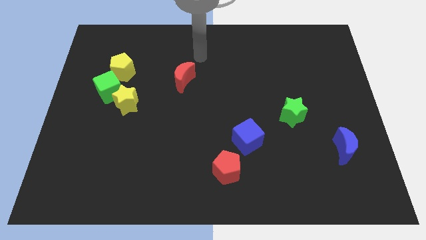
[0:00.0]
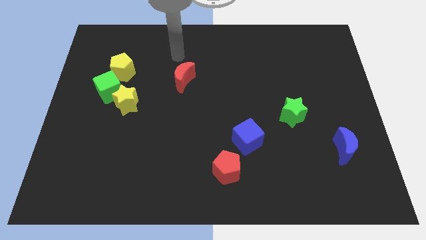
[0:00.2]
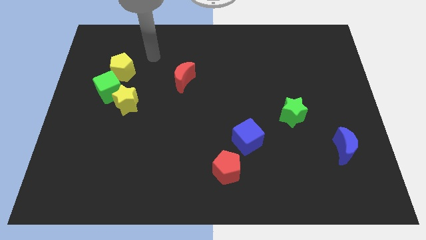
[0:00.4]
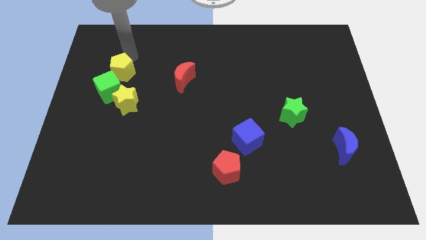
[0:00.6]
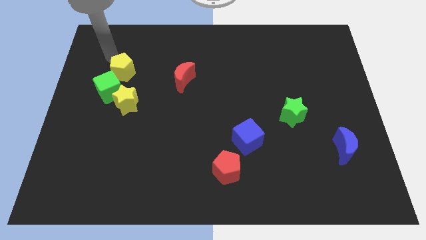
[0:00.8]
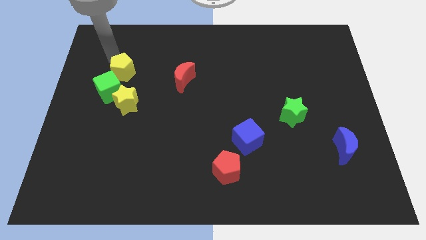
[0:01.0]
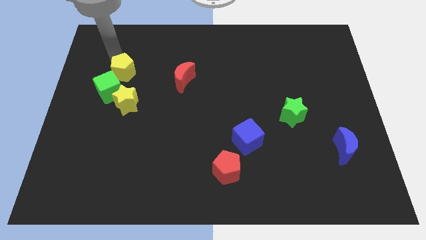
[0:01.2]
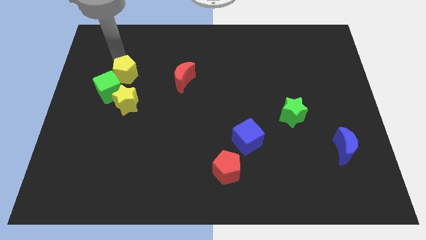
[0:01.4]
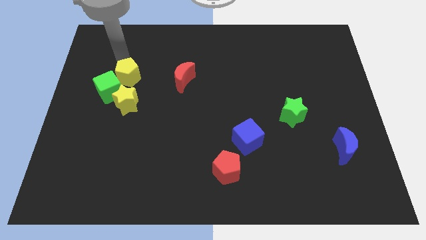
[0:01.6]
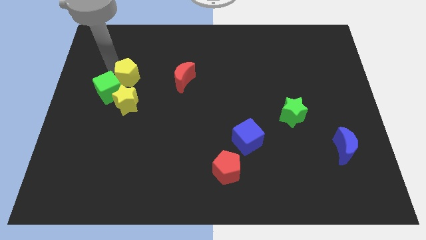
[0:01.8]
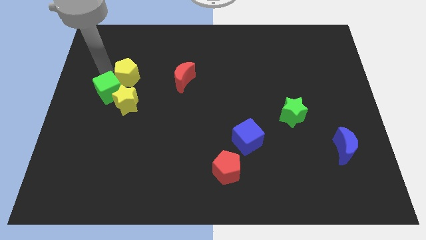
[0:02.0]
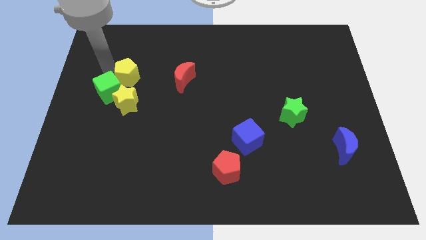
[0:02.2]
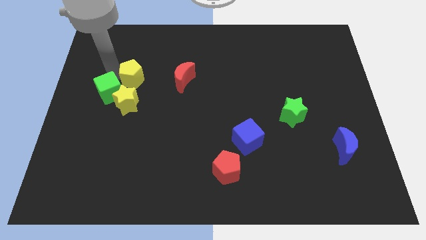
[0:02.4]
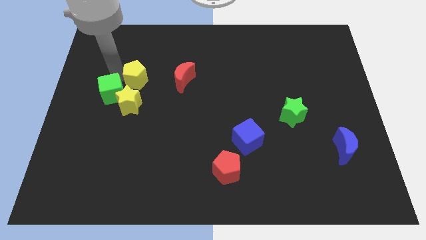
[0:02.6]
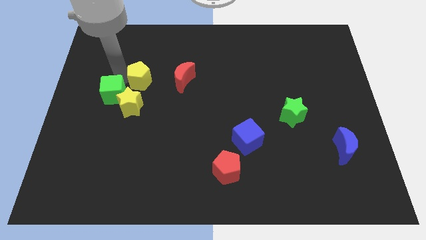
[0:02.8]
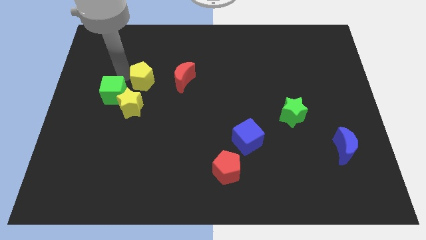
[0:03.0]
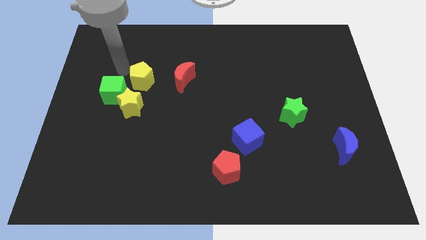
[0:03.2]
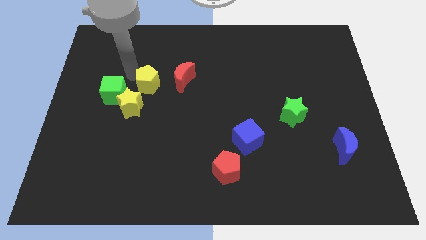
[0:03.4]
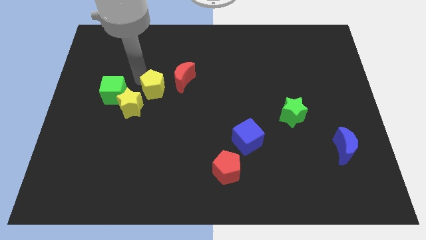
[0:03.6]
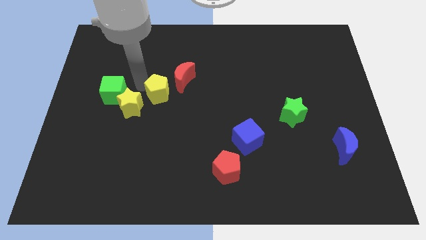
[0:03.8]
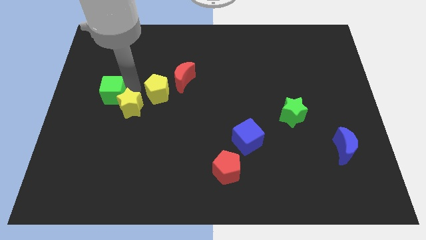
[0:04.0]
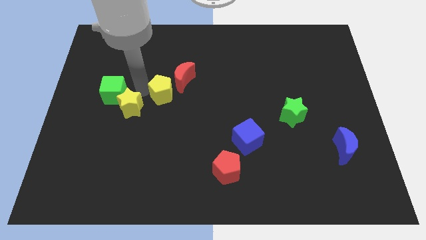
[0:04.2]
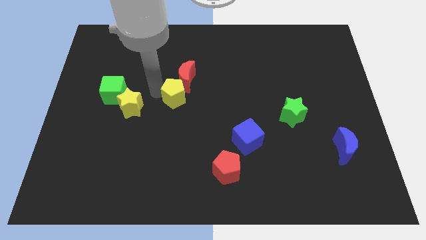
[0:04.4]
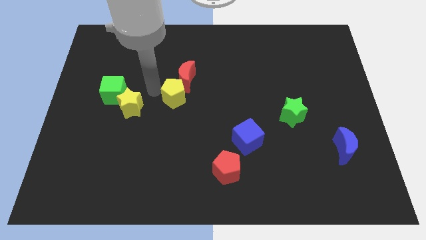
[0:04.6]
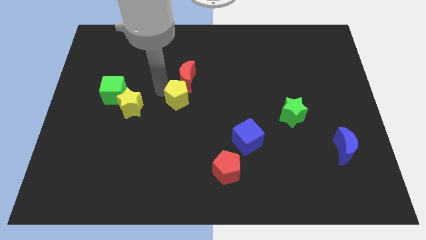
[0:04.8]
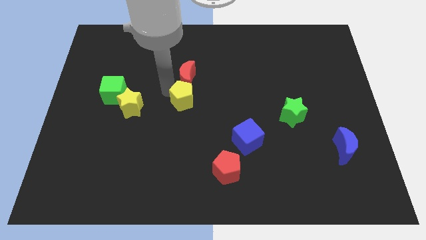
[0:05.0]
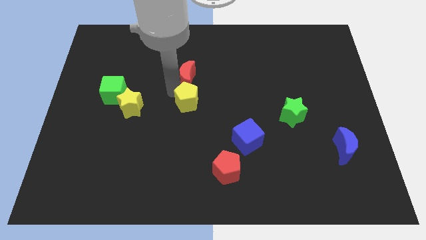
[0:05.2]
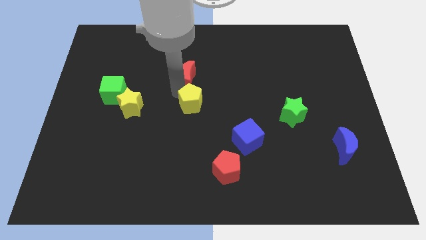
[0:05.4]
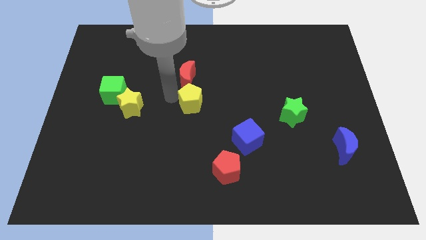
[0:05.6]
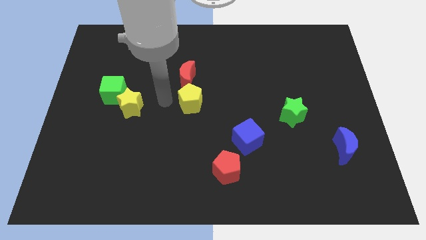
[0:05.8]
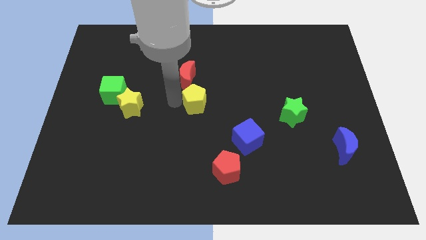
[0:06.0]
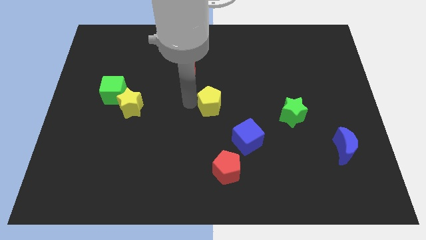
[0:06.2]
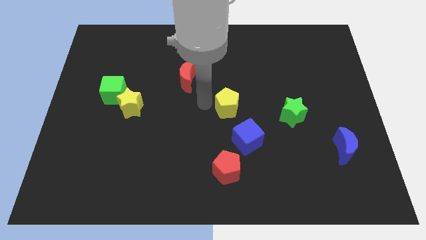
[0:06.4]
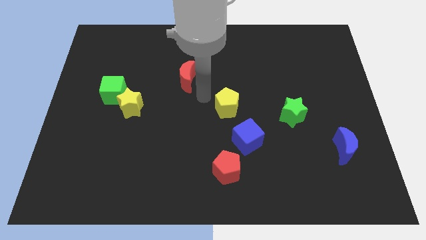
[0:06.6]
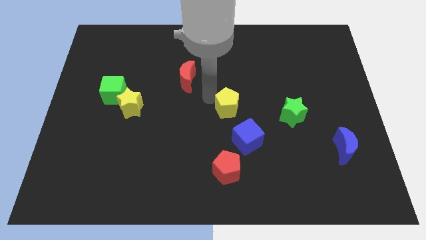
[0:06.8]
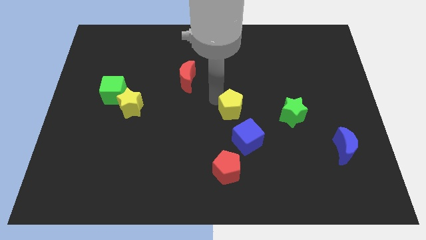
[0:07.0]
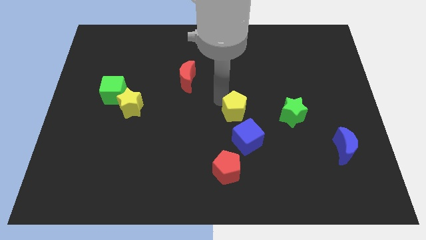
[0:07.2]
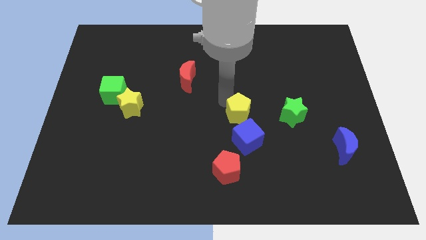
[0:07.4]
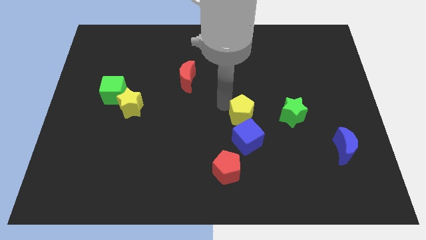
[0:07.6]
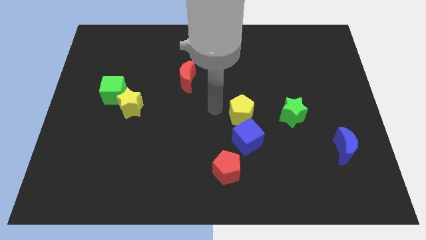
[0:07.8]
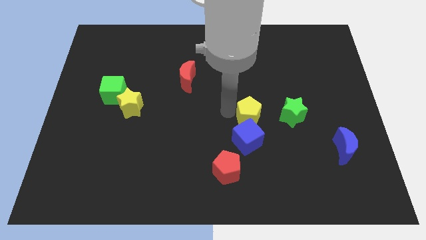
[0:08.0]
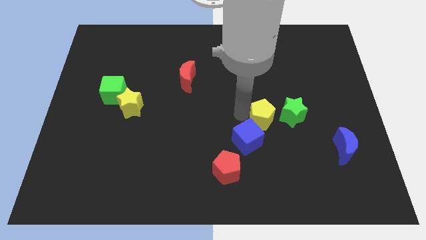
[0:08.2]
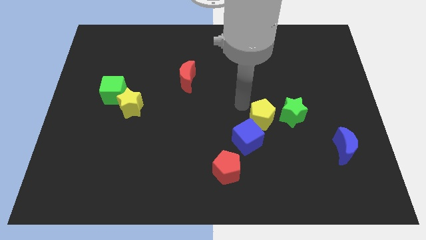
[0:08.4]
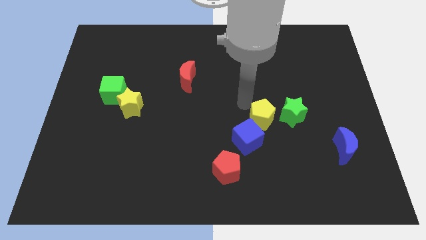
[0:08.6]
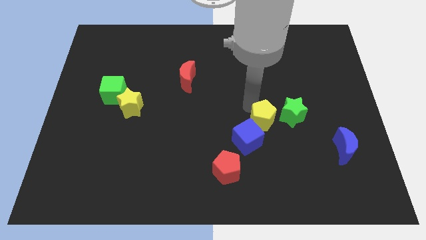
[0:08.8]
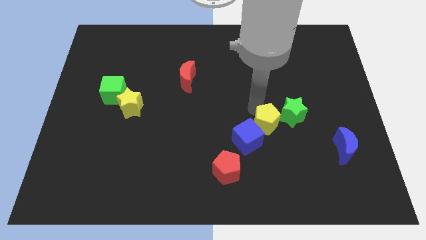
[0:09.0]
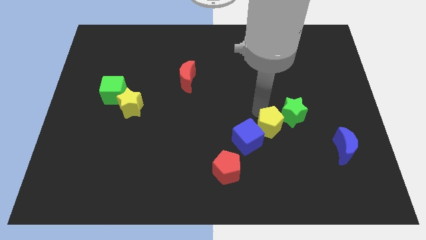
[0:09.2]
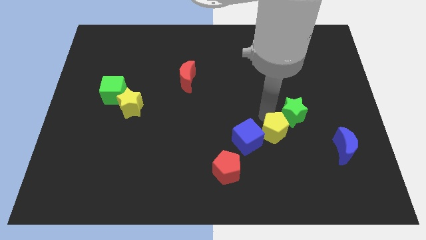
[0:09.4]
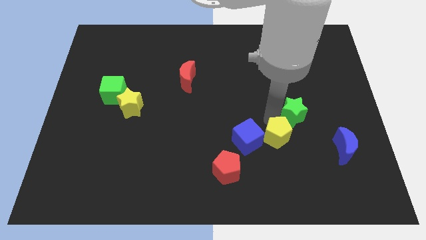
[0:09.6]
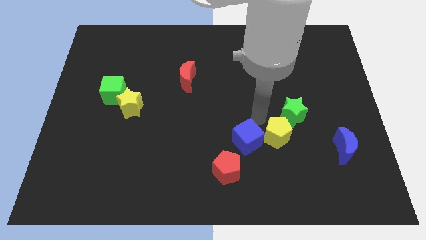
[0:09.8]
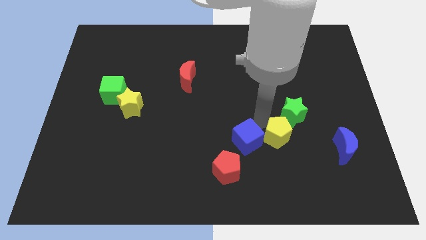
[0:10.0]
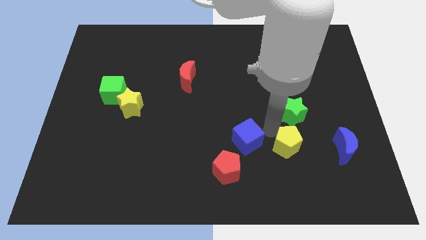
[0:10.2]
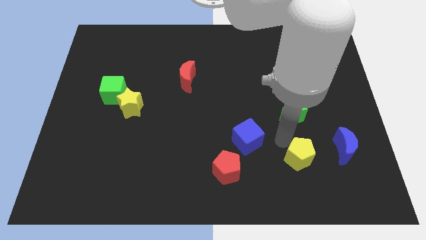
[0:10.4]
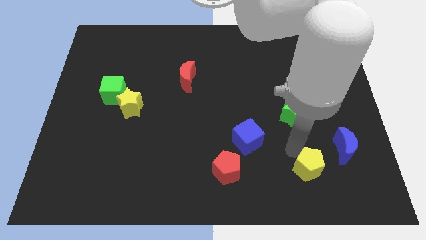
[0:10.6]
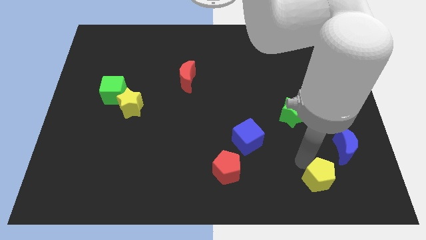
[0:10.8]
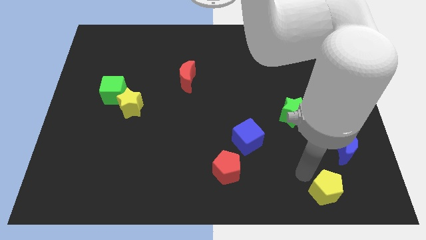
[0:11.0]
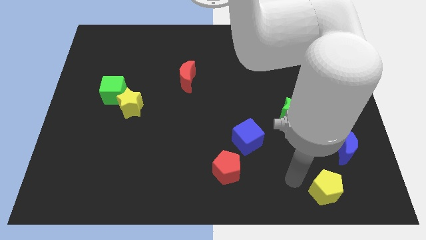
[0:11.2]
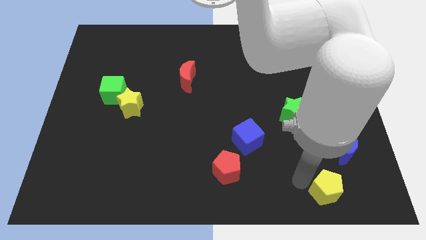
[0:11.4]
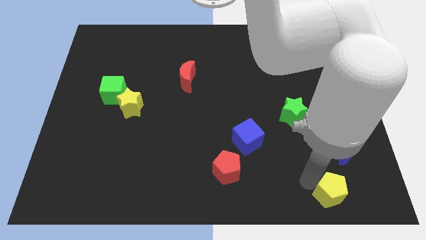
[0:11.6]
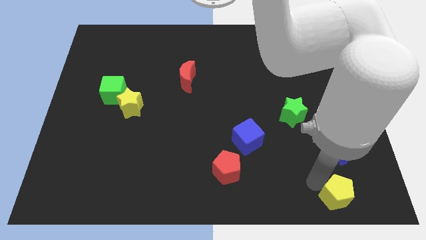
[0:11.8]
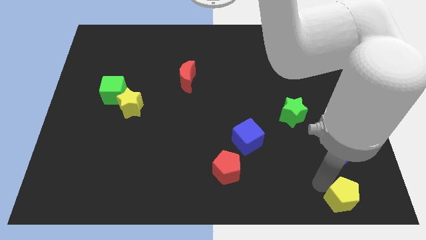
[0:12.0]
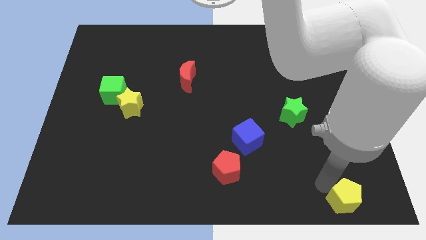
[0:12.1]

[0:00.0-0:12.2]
slide the yellow pentagon to the lower right corner

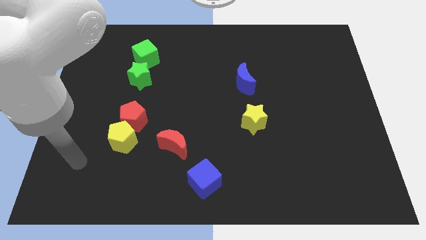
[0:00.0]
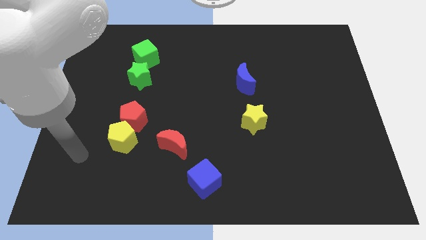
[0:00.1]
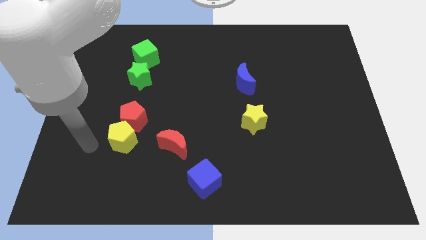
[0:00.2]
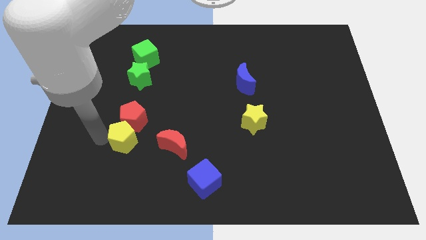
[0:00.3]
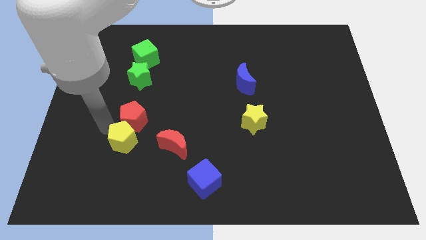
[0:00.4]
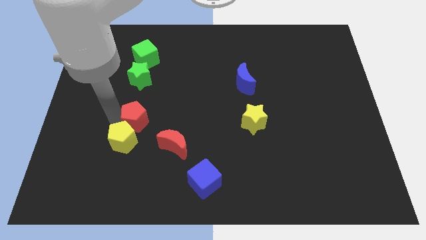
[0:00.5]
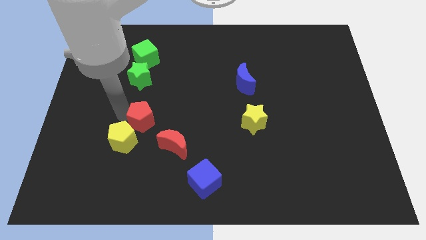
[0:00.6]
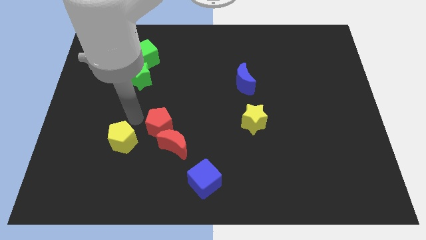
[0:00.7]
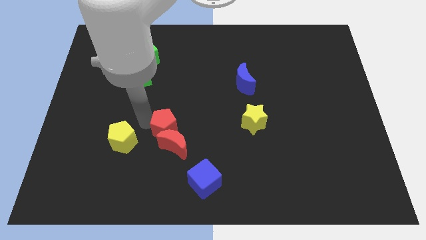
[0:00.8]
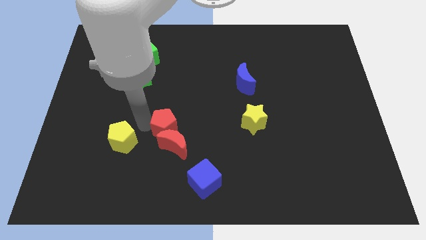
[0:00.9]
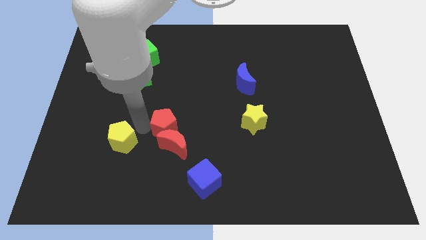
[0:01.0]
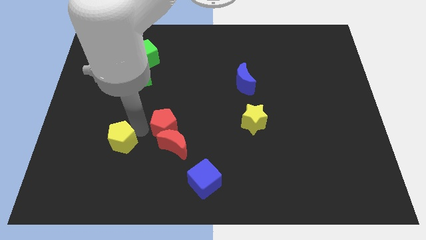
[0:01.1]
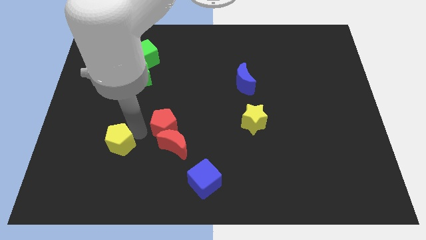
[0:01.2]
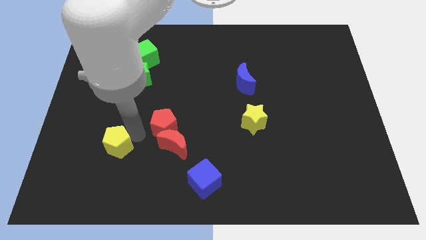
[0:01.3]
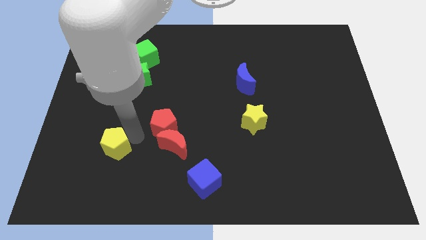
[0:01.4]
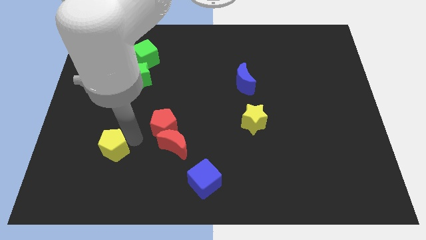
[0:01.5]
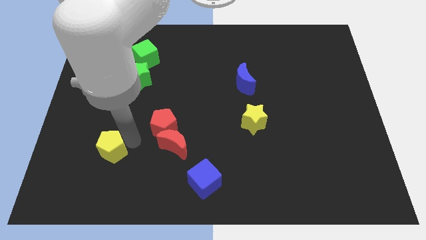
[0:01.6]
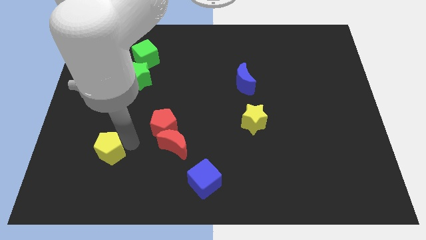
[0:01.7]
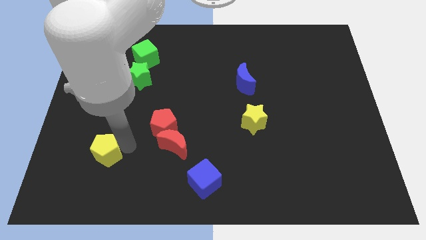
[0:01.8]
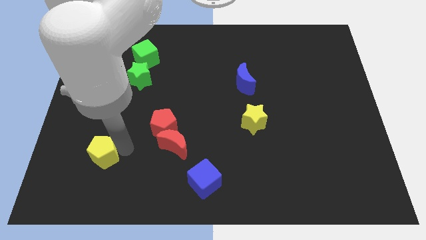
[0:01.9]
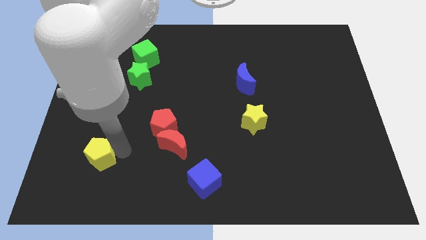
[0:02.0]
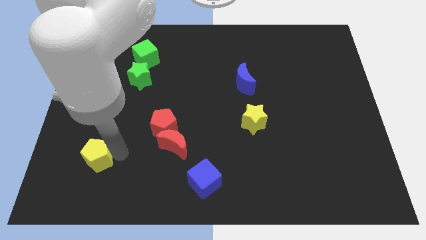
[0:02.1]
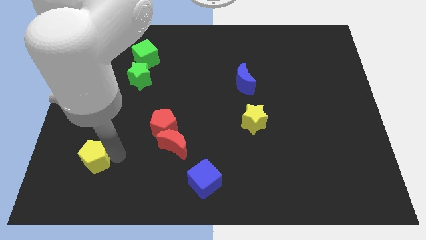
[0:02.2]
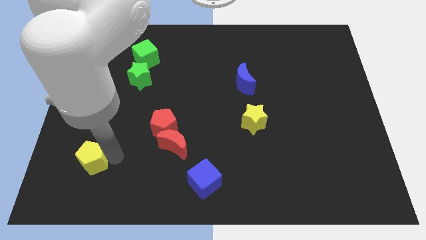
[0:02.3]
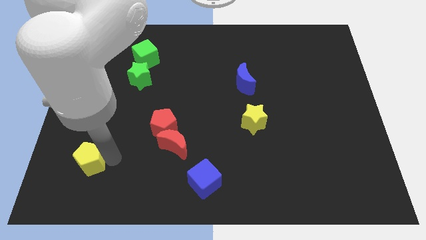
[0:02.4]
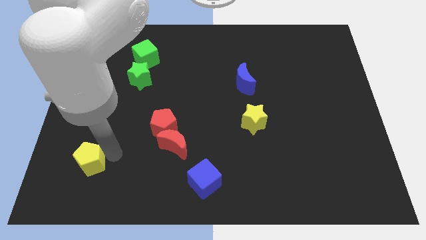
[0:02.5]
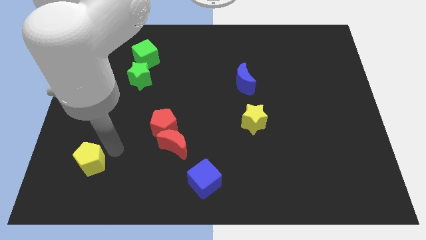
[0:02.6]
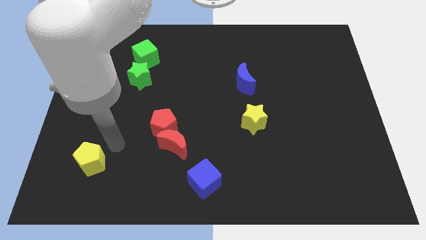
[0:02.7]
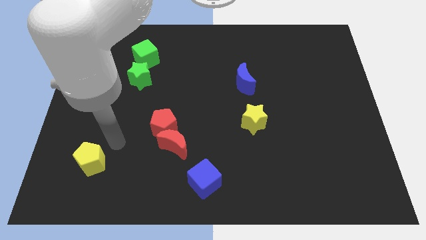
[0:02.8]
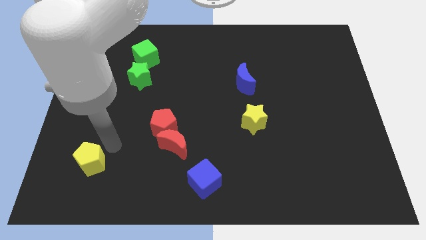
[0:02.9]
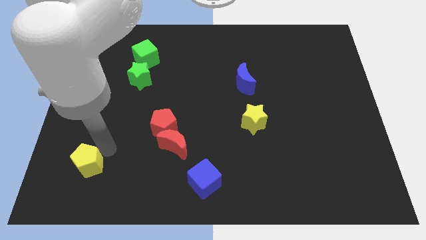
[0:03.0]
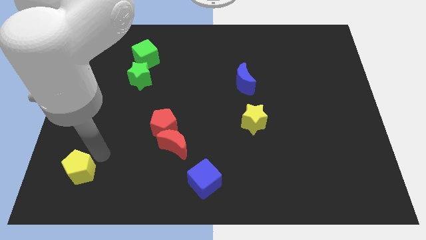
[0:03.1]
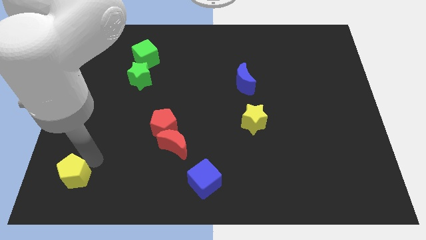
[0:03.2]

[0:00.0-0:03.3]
put the yellow pentagon to the lower left corner
